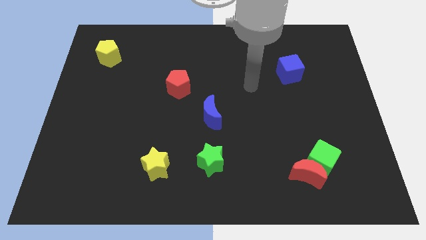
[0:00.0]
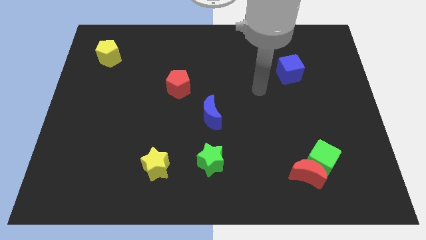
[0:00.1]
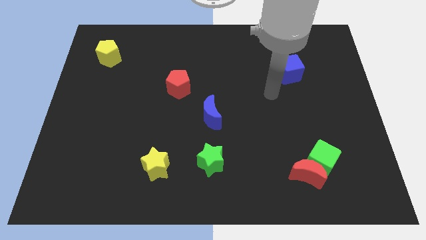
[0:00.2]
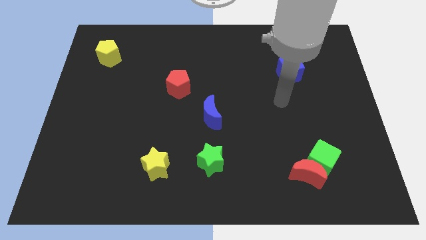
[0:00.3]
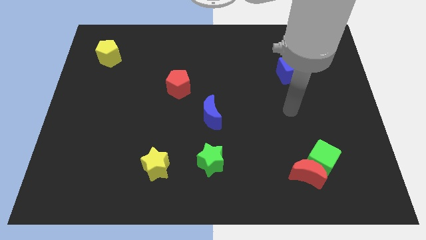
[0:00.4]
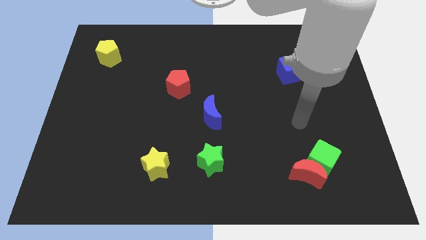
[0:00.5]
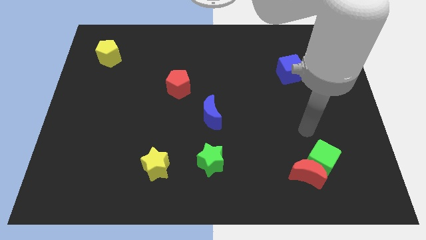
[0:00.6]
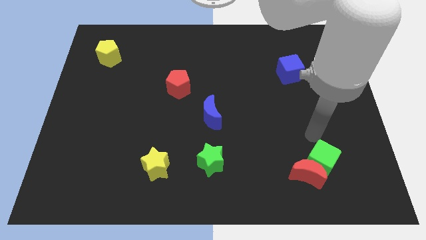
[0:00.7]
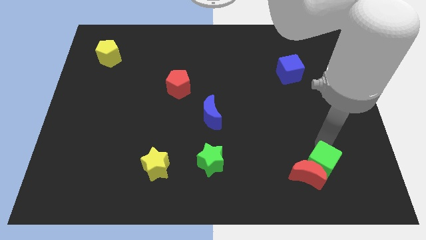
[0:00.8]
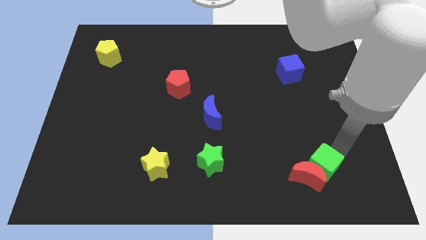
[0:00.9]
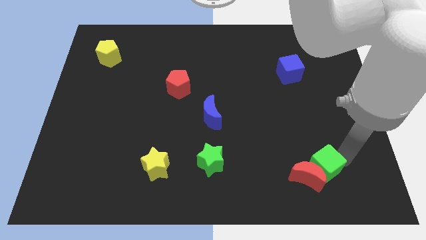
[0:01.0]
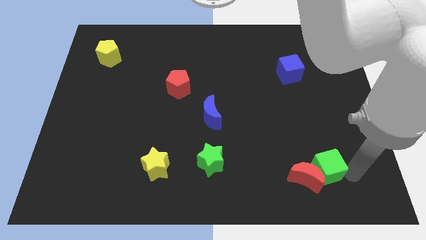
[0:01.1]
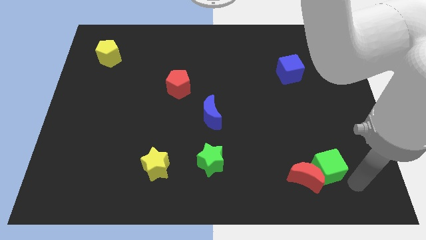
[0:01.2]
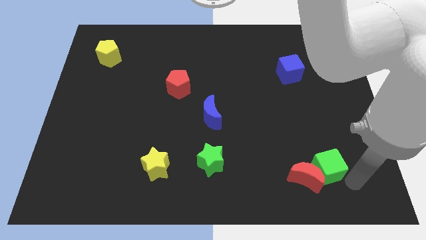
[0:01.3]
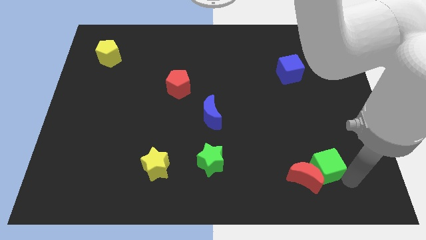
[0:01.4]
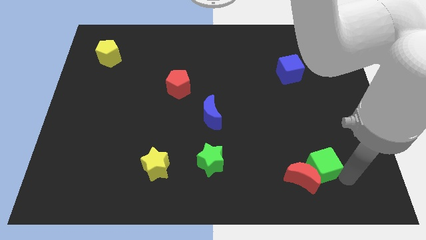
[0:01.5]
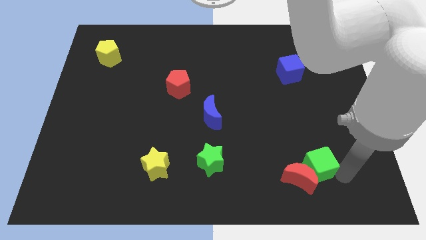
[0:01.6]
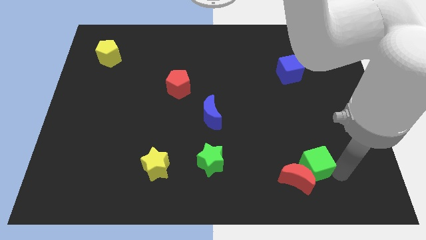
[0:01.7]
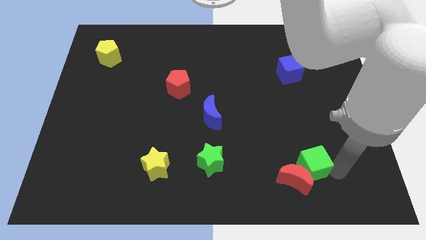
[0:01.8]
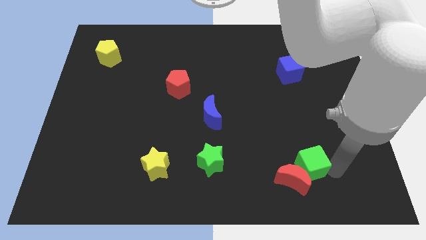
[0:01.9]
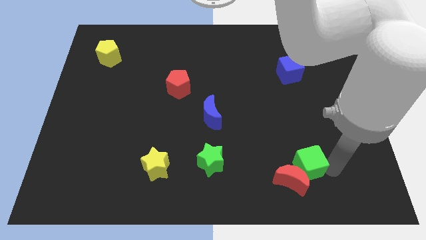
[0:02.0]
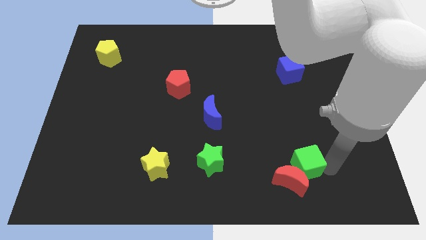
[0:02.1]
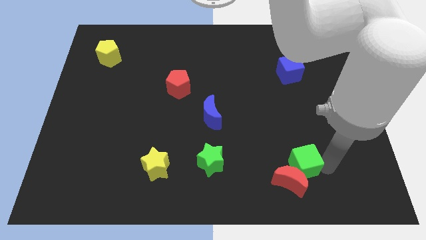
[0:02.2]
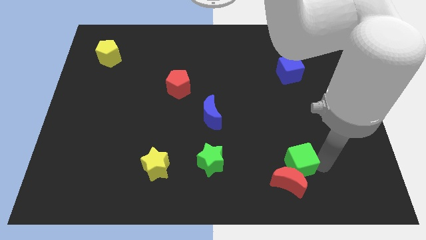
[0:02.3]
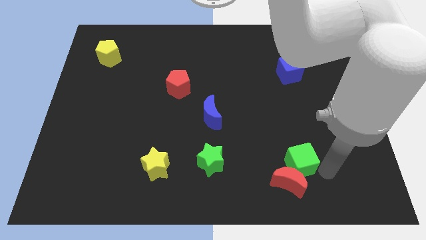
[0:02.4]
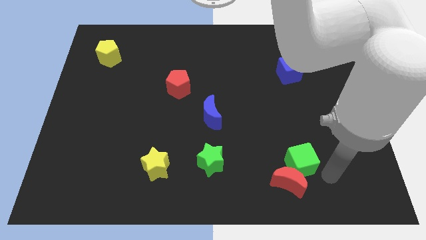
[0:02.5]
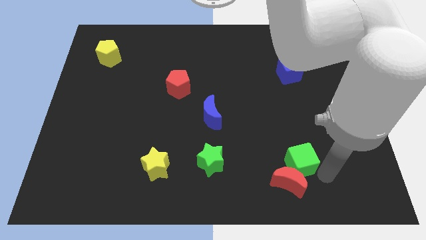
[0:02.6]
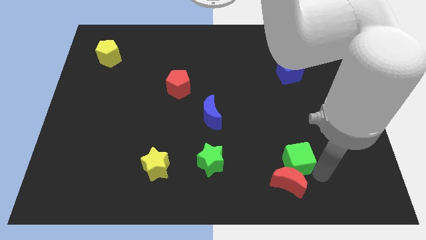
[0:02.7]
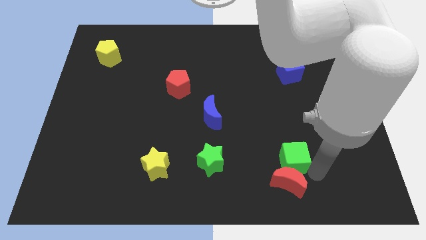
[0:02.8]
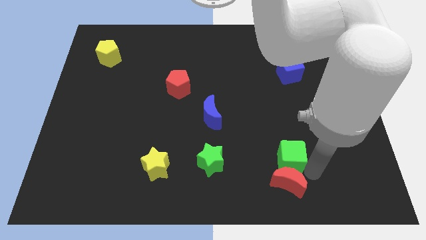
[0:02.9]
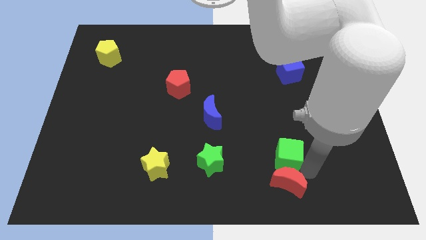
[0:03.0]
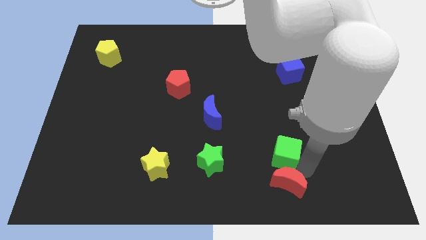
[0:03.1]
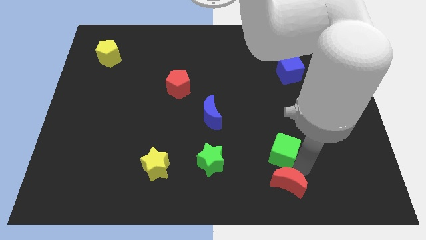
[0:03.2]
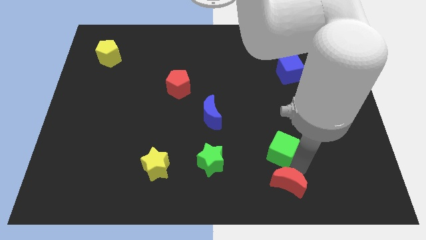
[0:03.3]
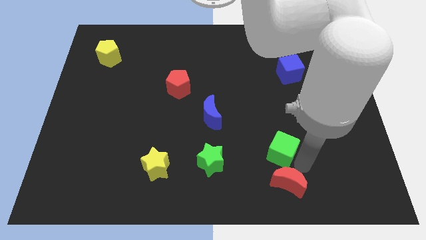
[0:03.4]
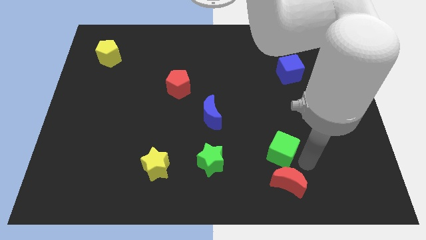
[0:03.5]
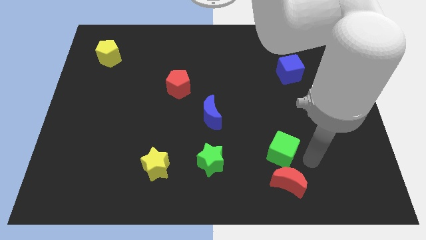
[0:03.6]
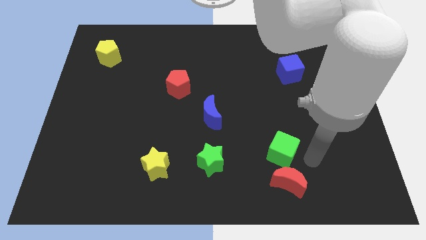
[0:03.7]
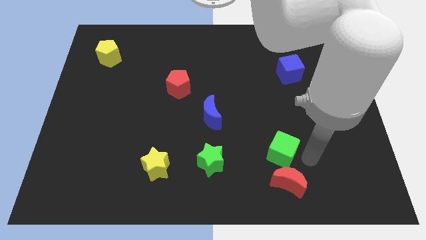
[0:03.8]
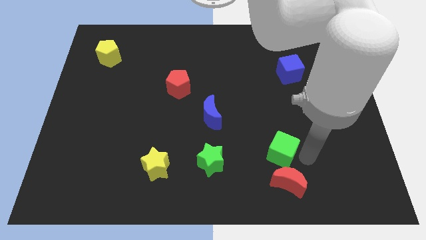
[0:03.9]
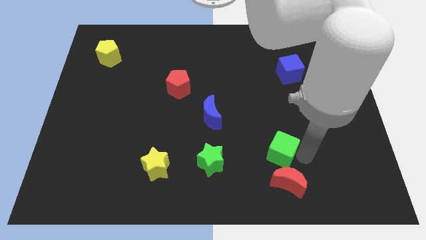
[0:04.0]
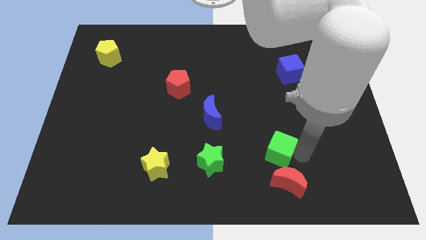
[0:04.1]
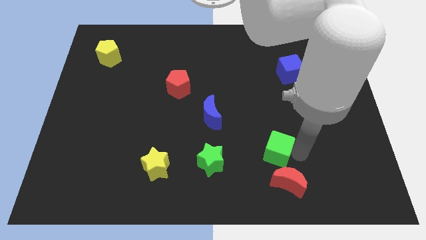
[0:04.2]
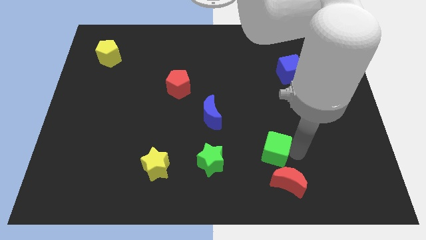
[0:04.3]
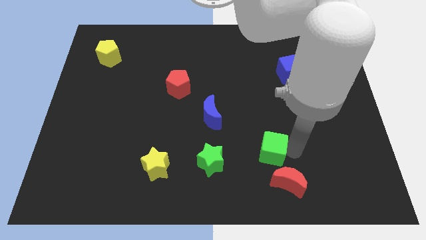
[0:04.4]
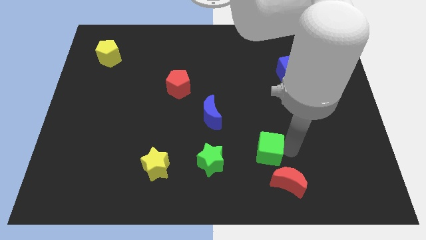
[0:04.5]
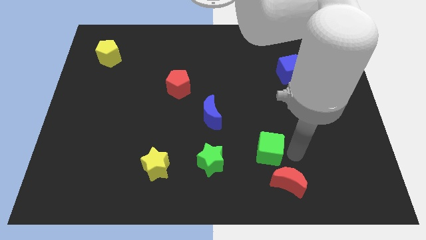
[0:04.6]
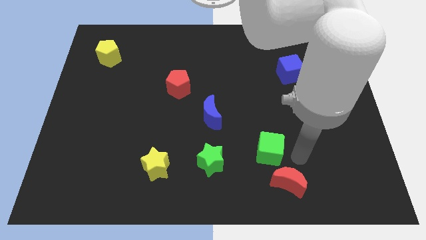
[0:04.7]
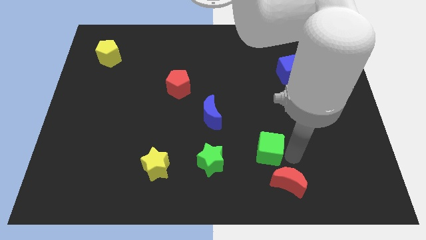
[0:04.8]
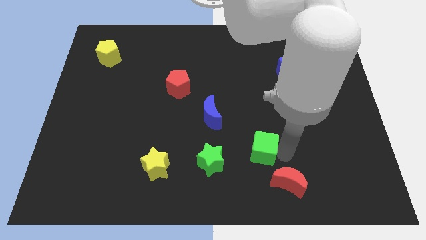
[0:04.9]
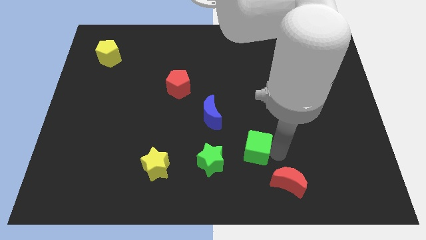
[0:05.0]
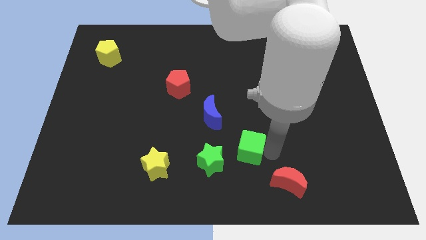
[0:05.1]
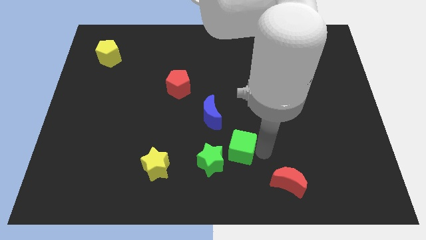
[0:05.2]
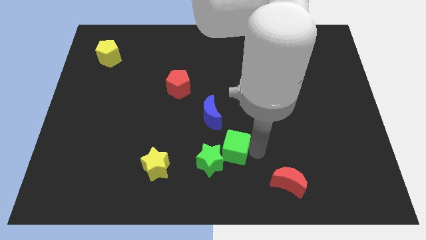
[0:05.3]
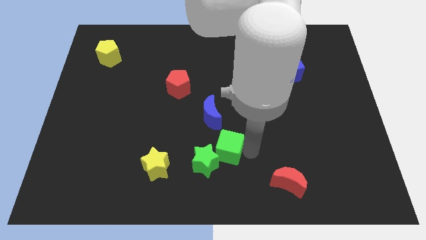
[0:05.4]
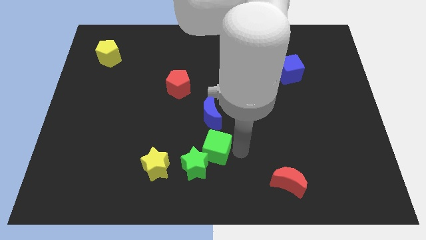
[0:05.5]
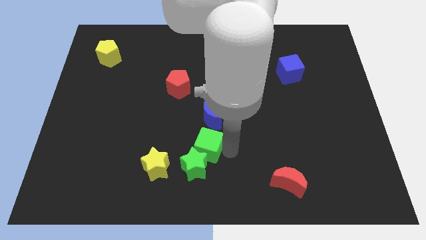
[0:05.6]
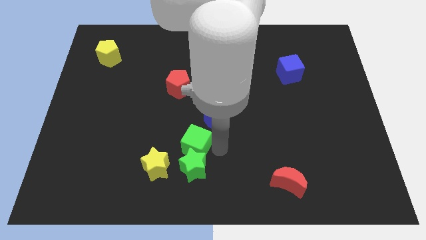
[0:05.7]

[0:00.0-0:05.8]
slide the green cube diagonally up and to the left of the green star

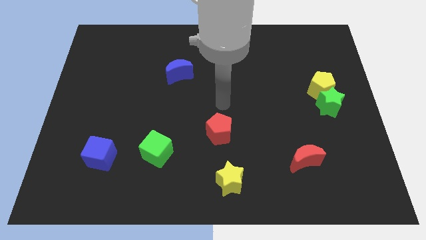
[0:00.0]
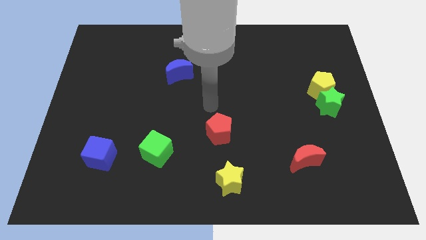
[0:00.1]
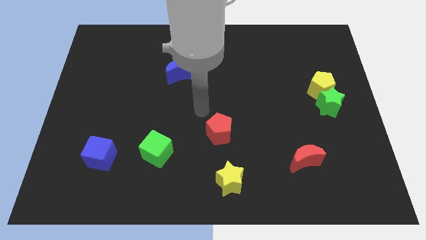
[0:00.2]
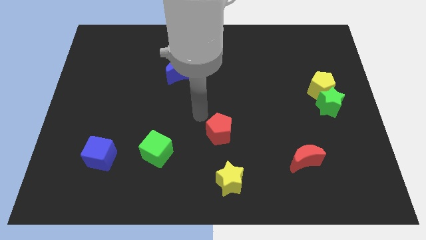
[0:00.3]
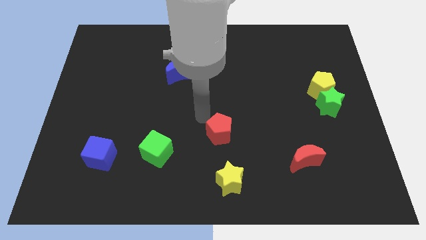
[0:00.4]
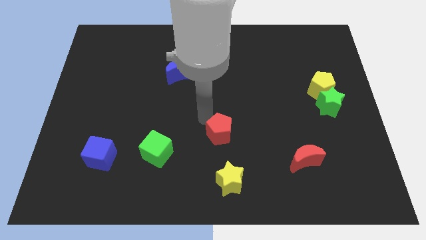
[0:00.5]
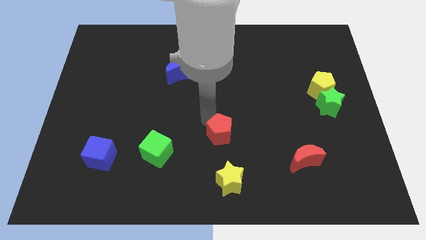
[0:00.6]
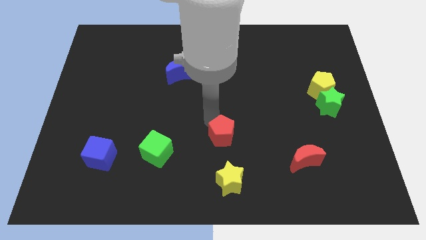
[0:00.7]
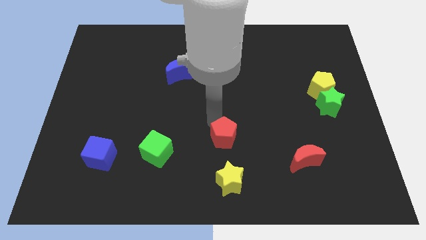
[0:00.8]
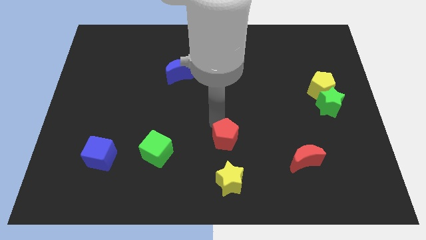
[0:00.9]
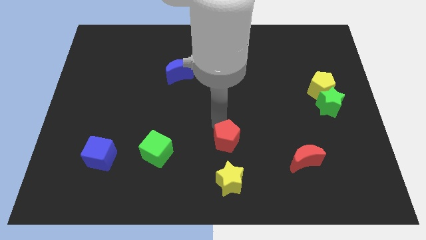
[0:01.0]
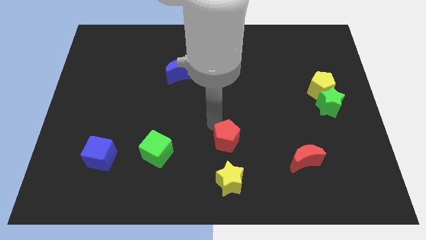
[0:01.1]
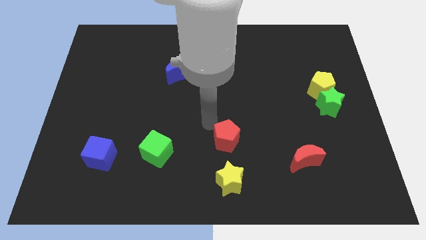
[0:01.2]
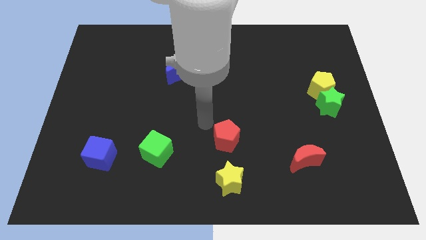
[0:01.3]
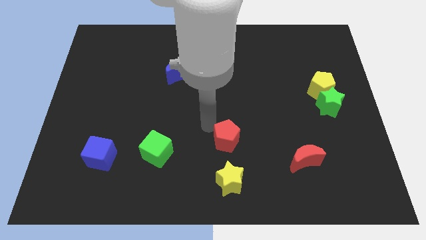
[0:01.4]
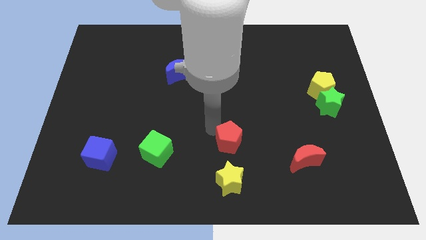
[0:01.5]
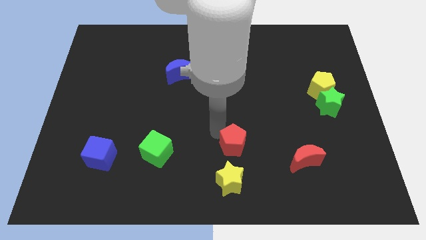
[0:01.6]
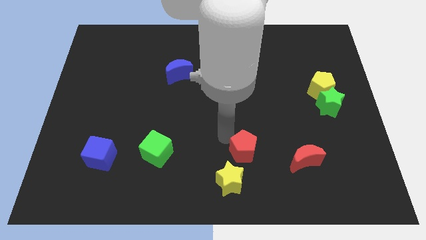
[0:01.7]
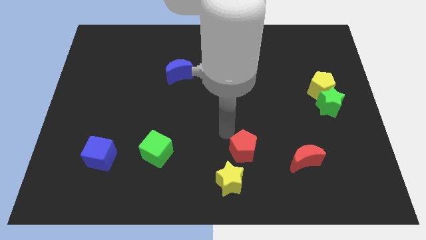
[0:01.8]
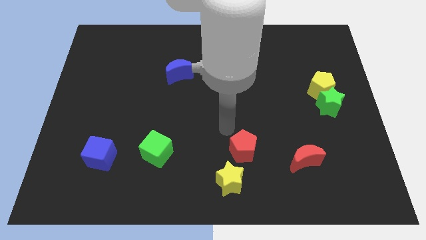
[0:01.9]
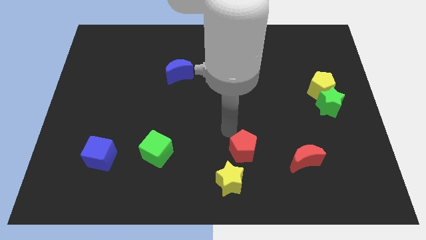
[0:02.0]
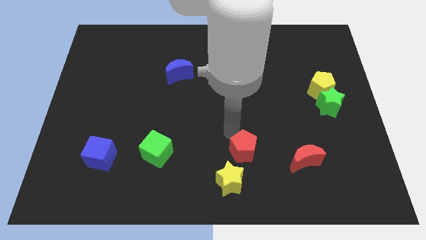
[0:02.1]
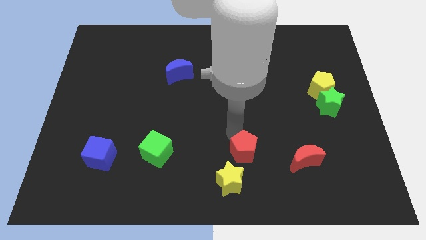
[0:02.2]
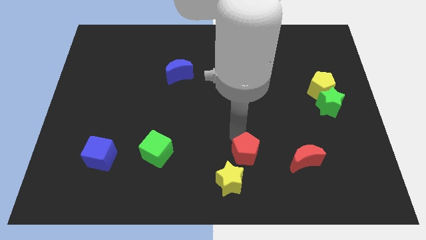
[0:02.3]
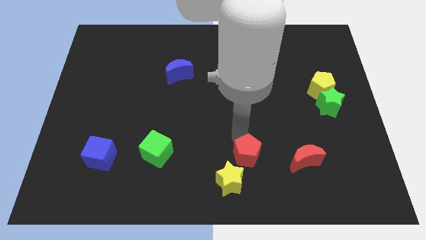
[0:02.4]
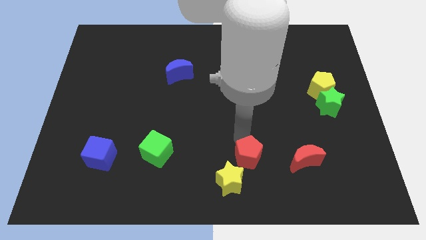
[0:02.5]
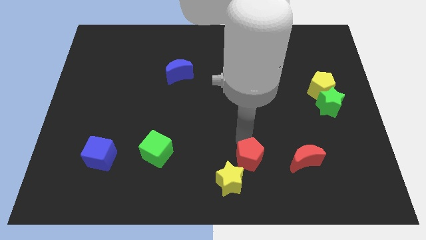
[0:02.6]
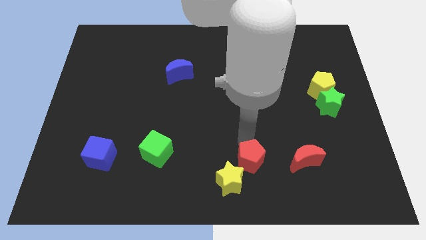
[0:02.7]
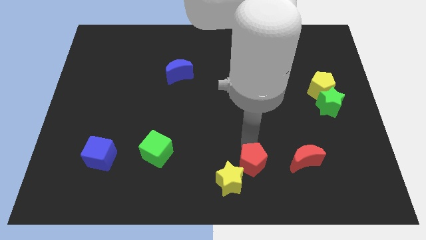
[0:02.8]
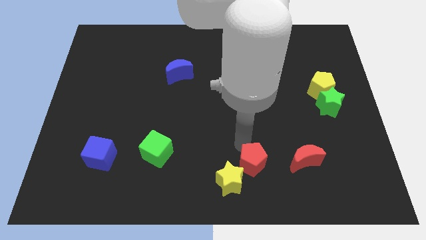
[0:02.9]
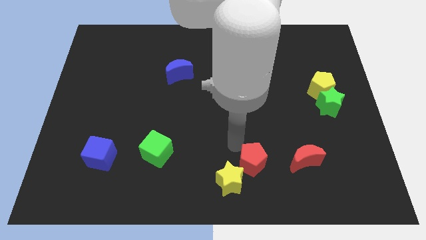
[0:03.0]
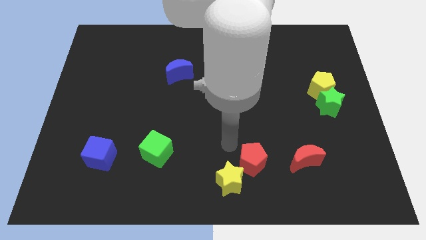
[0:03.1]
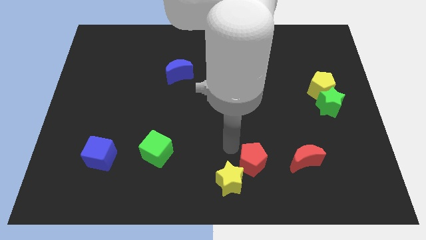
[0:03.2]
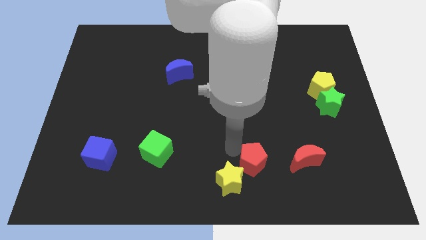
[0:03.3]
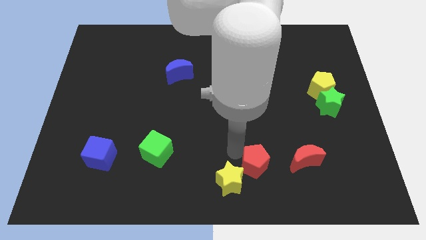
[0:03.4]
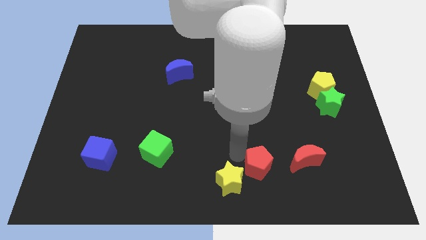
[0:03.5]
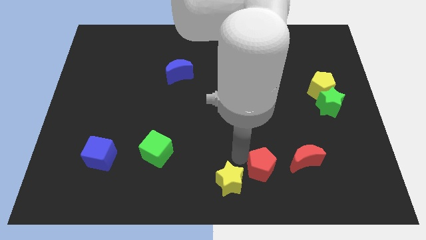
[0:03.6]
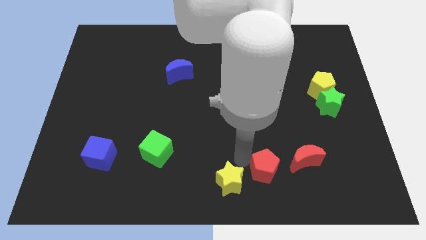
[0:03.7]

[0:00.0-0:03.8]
move the red pentagon to the bottom left of the red moon
